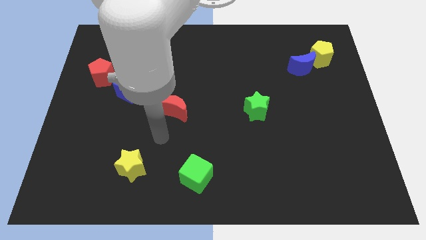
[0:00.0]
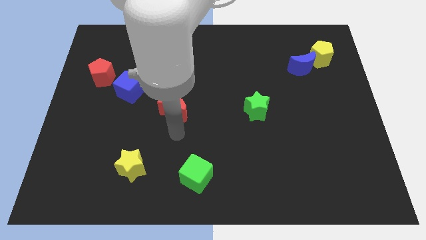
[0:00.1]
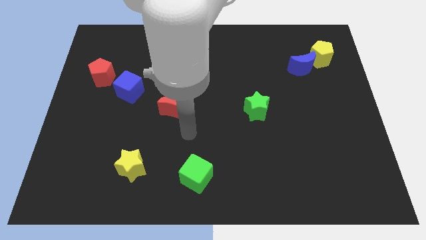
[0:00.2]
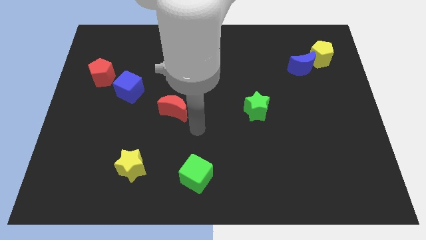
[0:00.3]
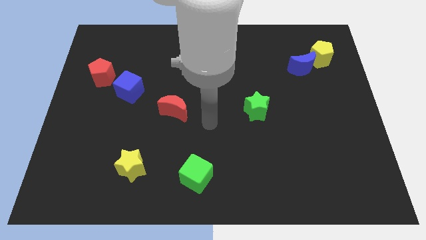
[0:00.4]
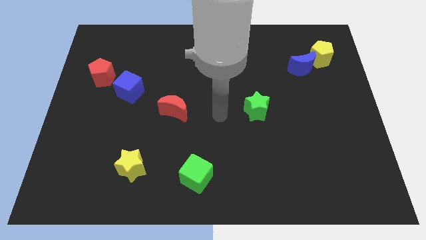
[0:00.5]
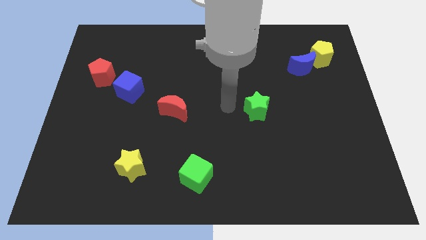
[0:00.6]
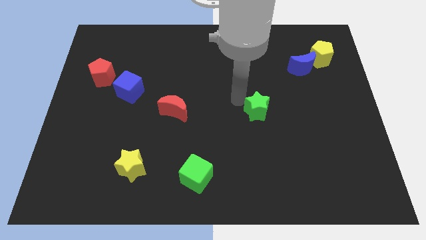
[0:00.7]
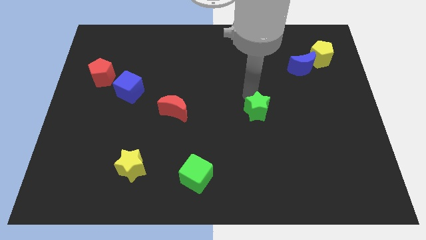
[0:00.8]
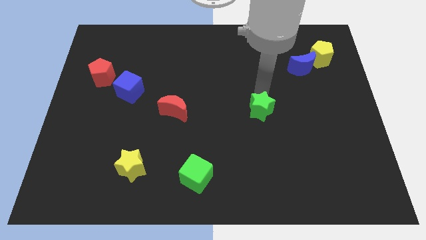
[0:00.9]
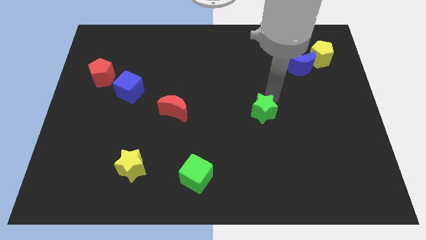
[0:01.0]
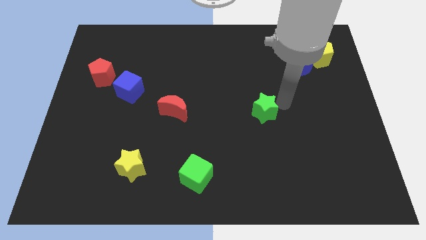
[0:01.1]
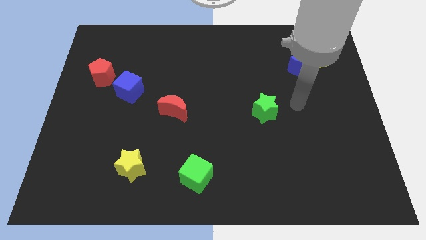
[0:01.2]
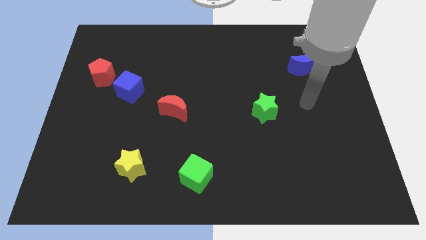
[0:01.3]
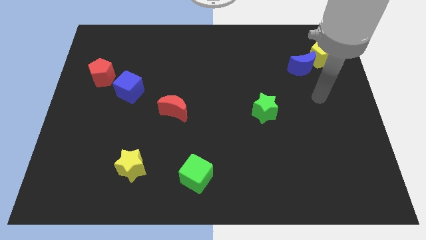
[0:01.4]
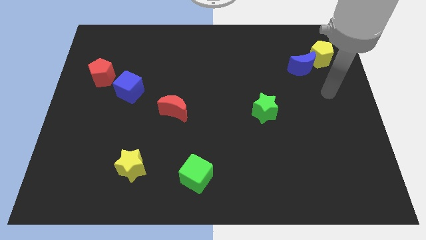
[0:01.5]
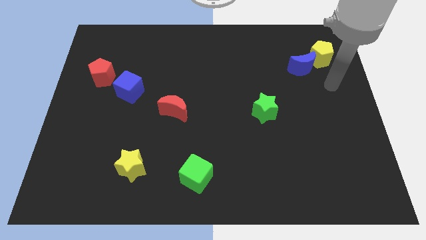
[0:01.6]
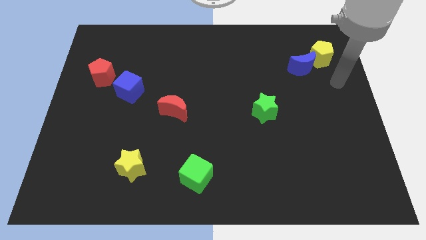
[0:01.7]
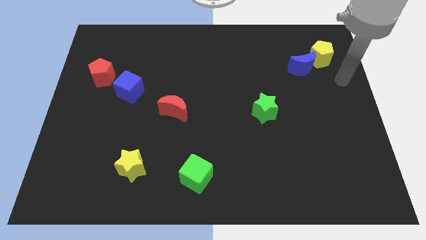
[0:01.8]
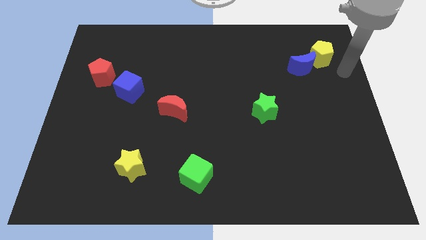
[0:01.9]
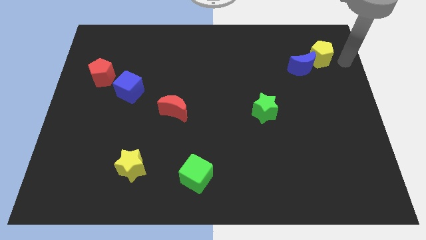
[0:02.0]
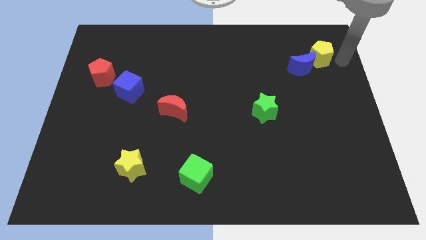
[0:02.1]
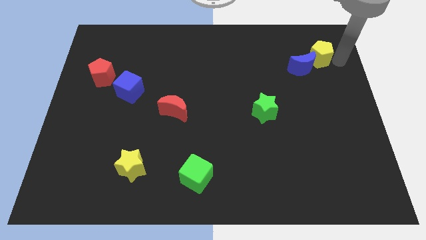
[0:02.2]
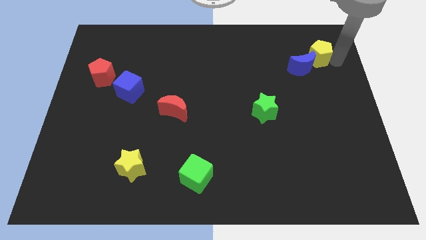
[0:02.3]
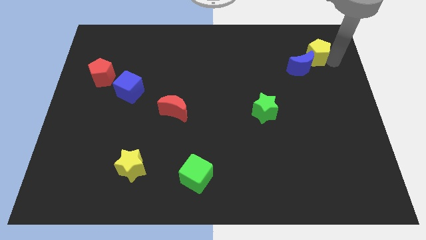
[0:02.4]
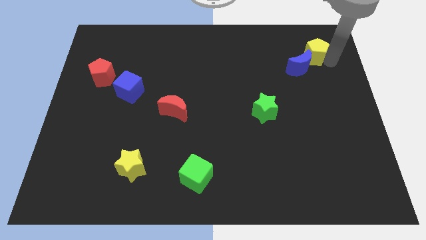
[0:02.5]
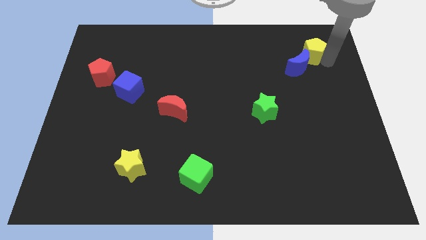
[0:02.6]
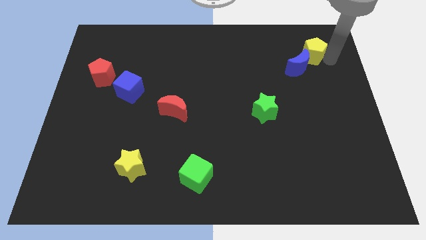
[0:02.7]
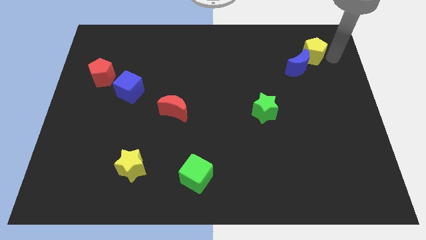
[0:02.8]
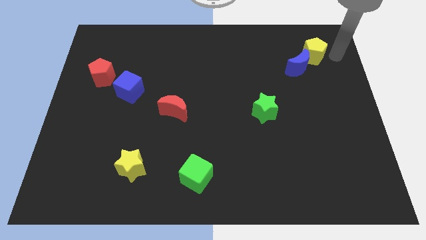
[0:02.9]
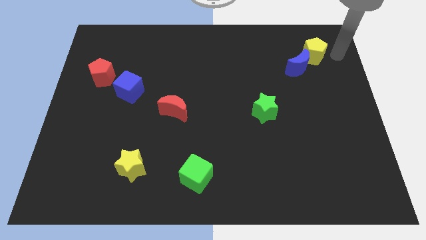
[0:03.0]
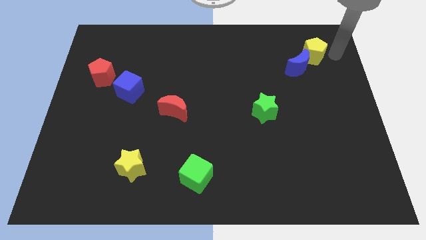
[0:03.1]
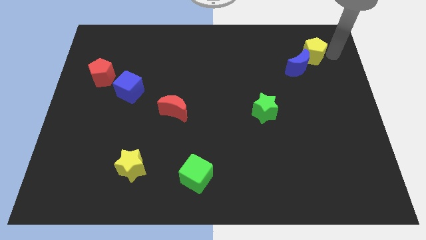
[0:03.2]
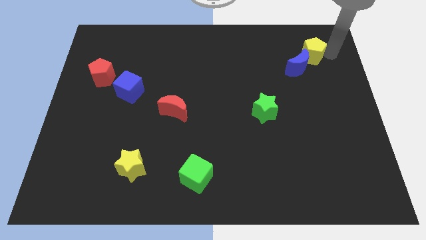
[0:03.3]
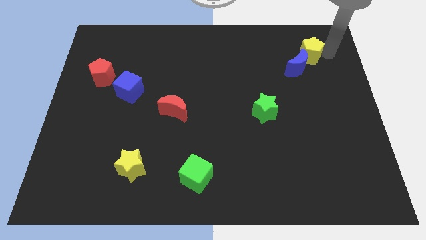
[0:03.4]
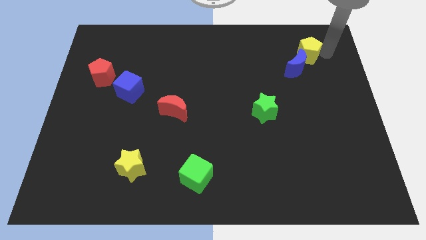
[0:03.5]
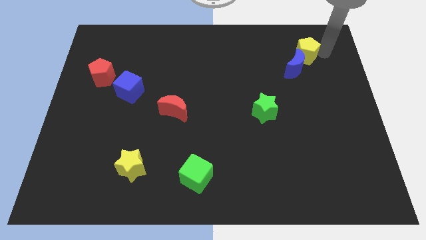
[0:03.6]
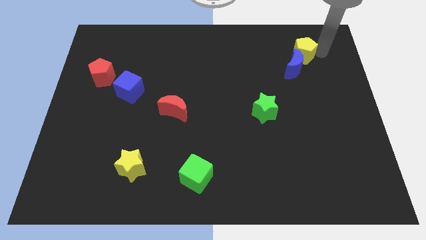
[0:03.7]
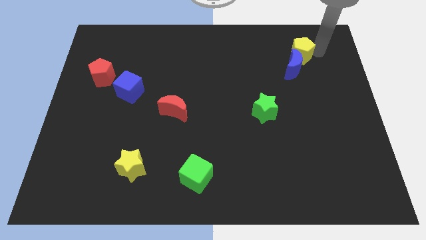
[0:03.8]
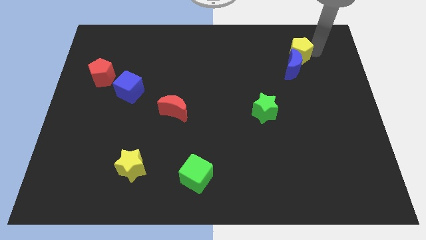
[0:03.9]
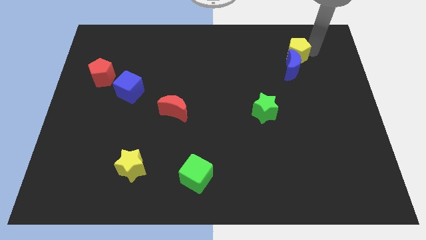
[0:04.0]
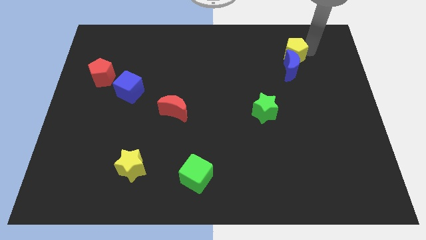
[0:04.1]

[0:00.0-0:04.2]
slightly move the yellow pentagon to the left

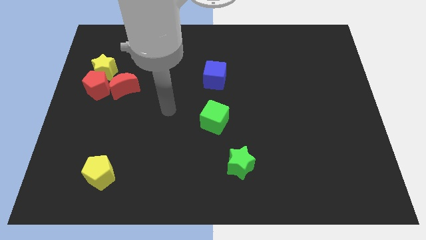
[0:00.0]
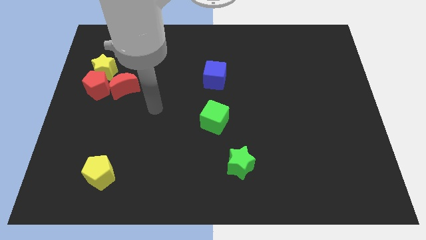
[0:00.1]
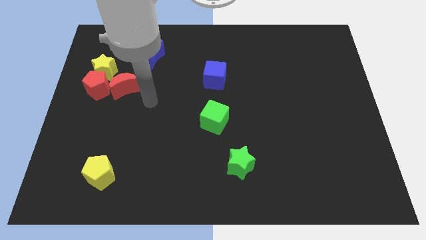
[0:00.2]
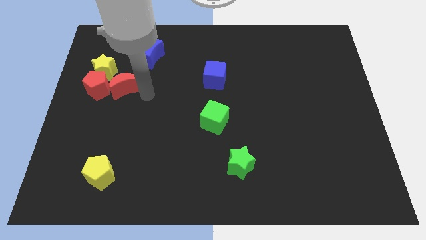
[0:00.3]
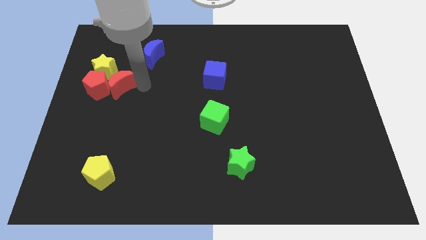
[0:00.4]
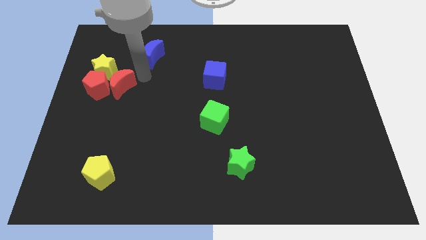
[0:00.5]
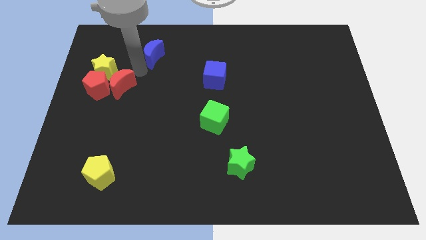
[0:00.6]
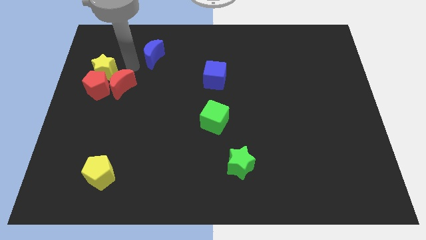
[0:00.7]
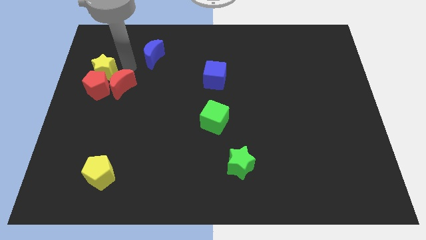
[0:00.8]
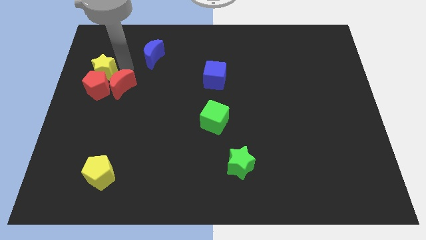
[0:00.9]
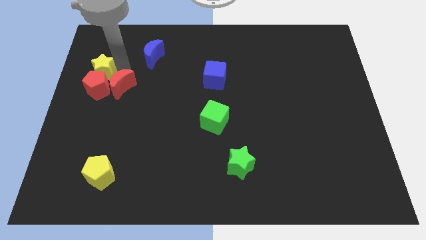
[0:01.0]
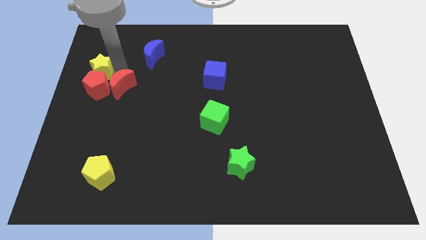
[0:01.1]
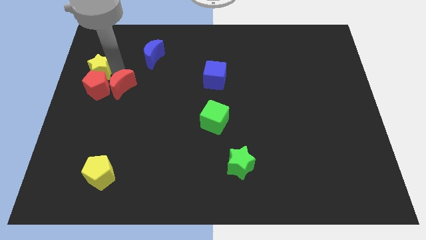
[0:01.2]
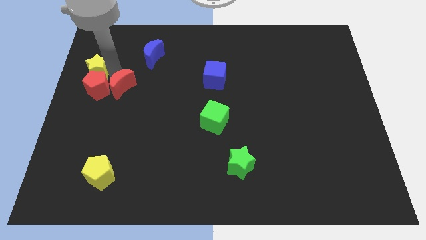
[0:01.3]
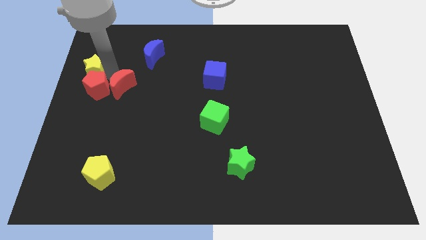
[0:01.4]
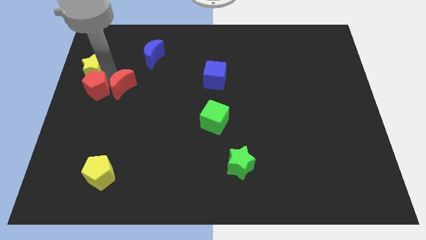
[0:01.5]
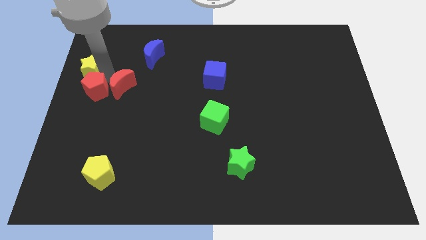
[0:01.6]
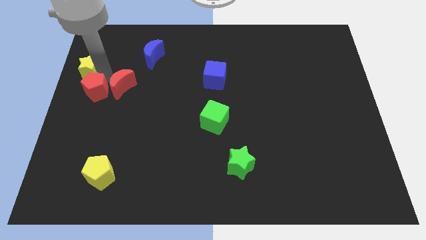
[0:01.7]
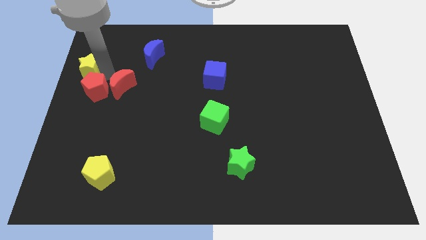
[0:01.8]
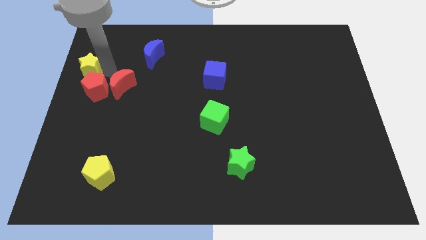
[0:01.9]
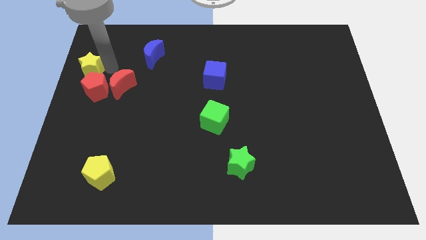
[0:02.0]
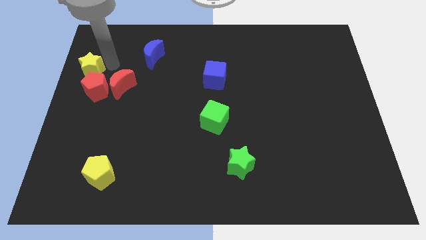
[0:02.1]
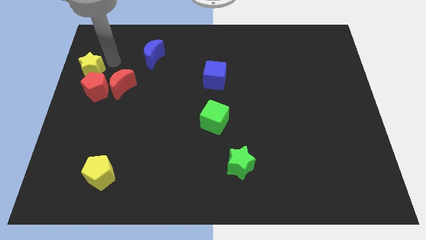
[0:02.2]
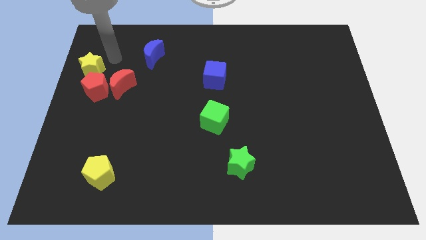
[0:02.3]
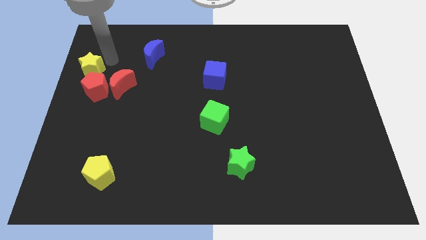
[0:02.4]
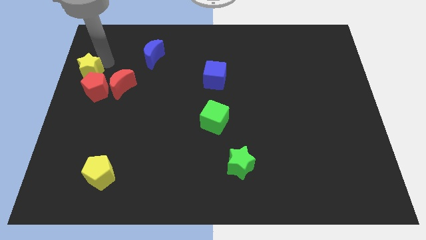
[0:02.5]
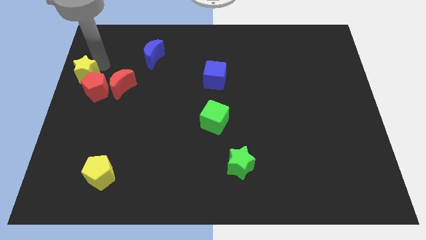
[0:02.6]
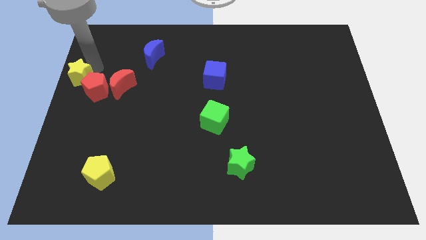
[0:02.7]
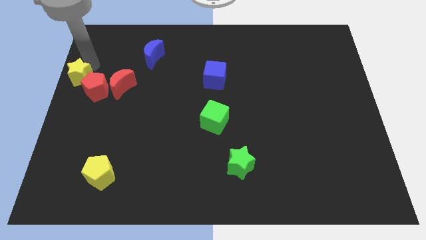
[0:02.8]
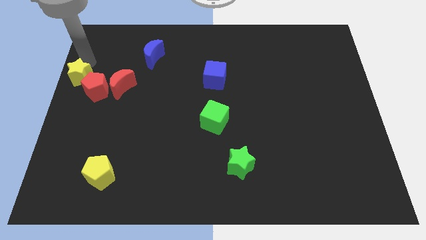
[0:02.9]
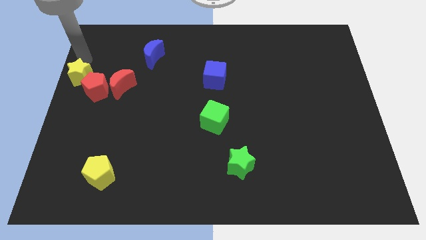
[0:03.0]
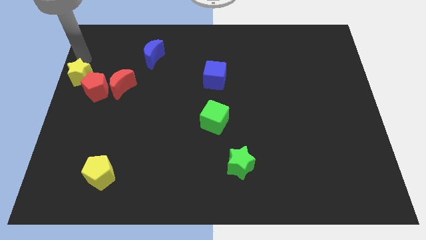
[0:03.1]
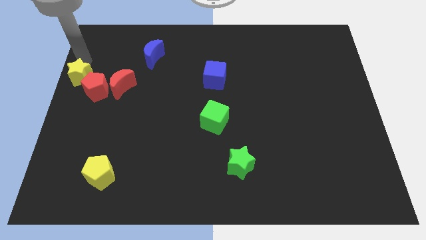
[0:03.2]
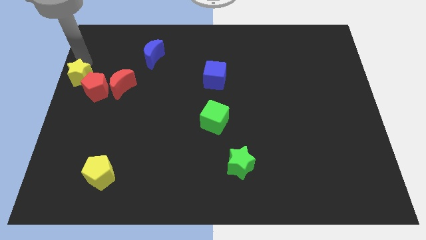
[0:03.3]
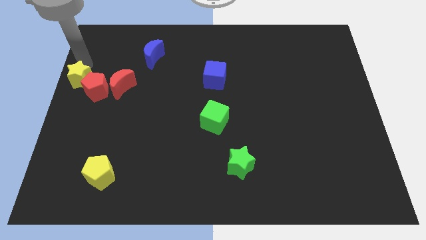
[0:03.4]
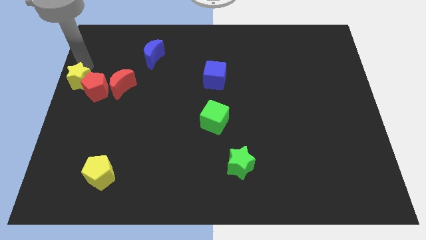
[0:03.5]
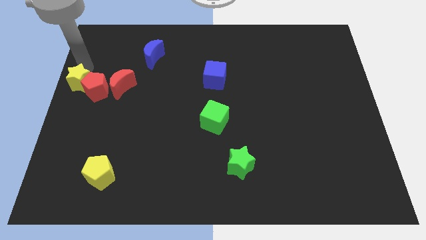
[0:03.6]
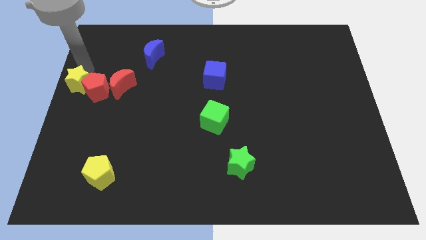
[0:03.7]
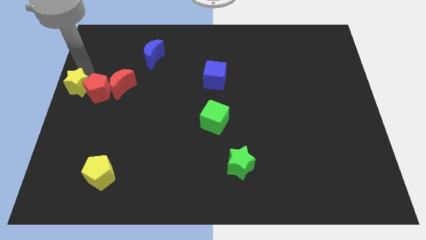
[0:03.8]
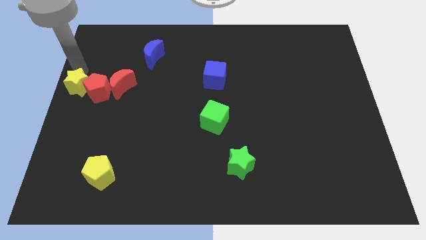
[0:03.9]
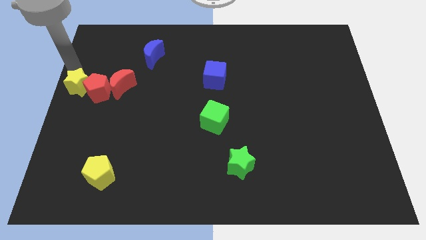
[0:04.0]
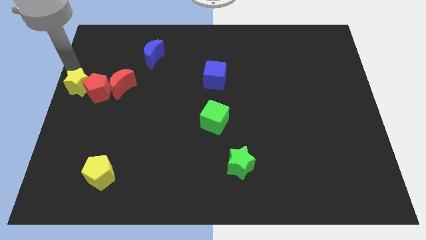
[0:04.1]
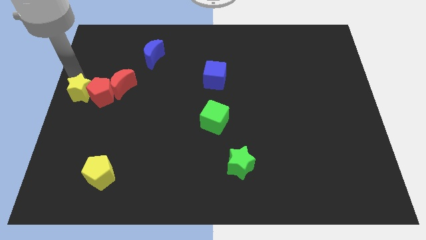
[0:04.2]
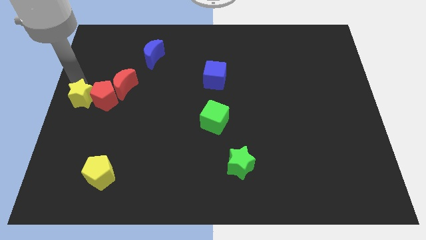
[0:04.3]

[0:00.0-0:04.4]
push the yellow star a little bit down
